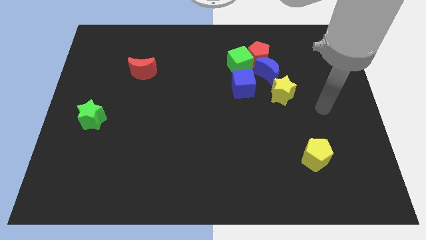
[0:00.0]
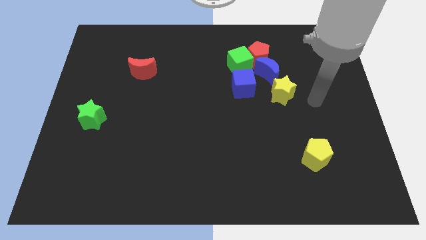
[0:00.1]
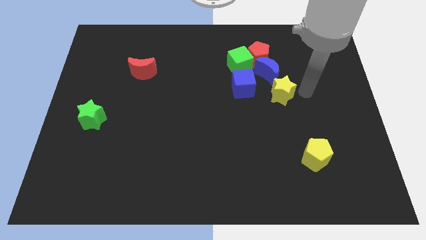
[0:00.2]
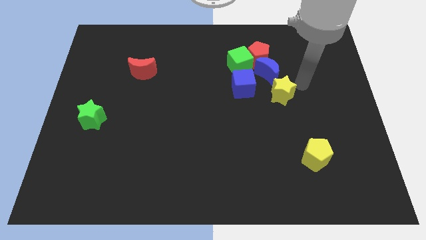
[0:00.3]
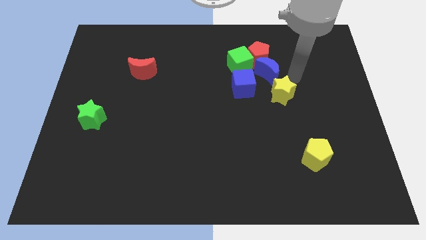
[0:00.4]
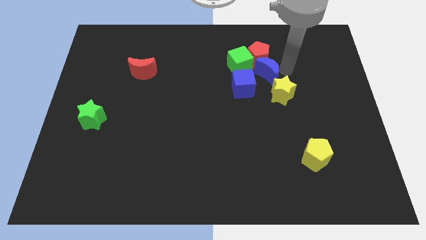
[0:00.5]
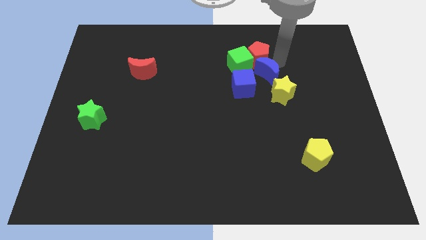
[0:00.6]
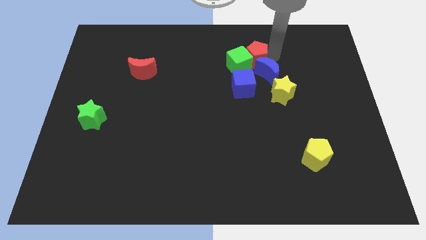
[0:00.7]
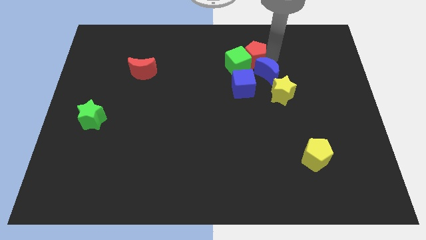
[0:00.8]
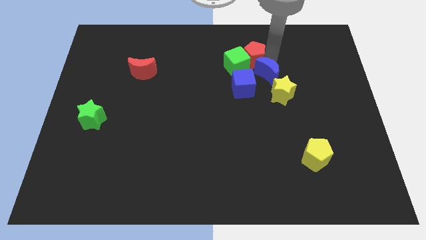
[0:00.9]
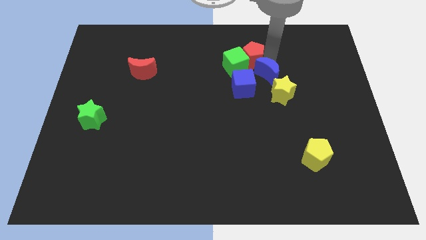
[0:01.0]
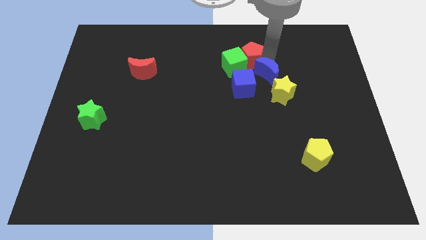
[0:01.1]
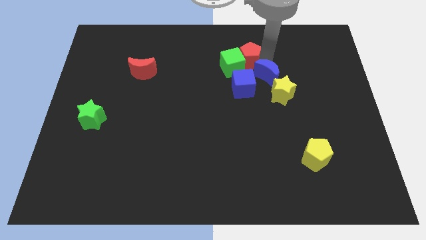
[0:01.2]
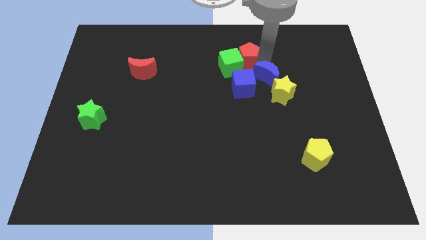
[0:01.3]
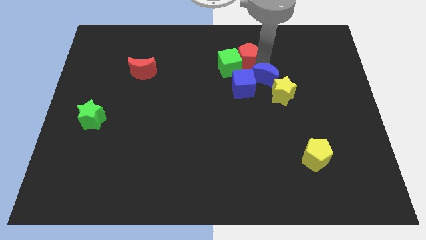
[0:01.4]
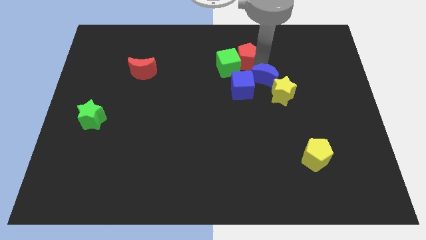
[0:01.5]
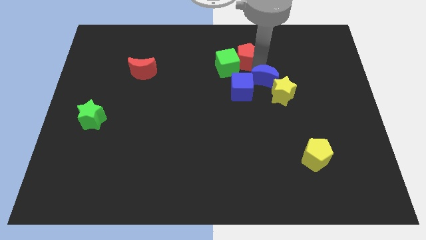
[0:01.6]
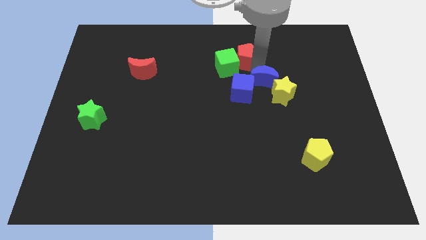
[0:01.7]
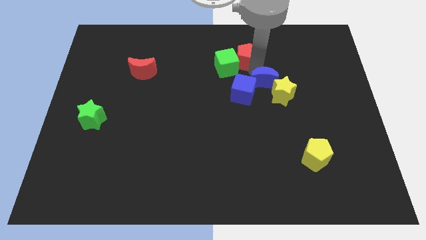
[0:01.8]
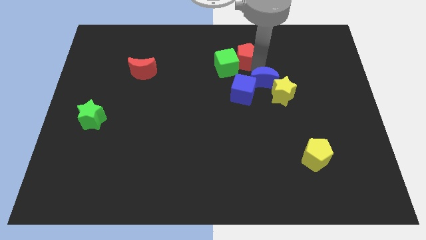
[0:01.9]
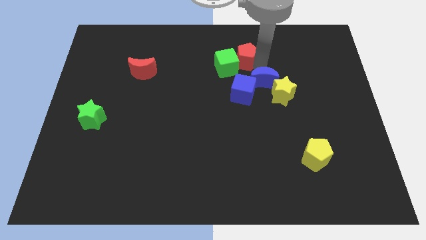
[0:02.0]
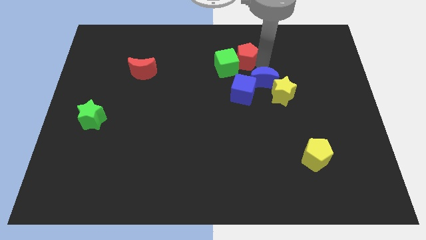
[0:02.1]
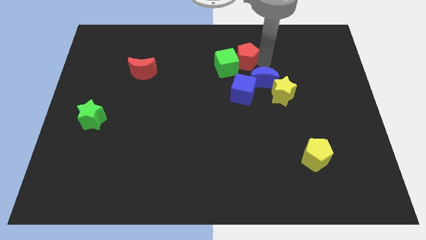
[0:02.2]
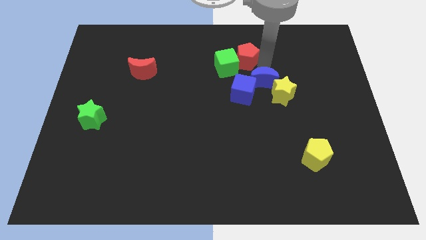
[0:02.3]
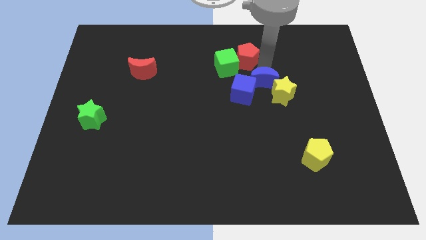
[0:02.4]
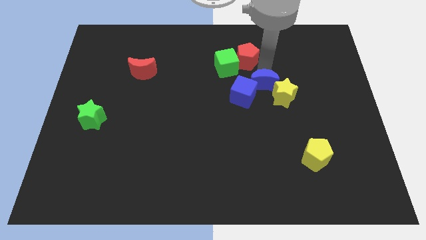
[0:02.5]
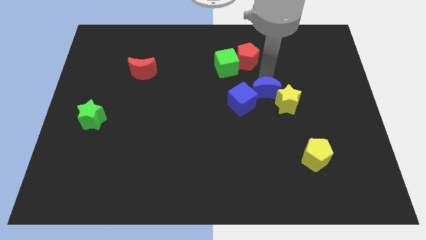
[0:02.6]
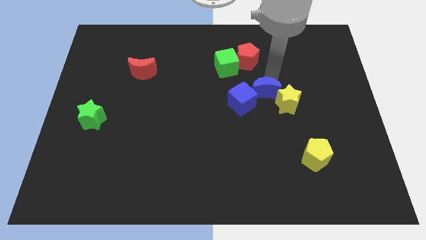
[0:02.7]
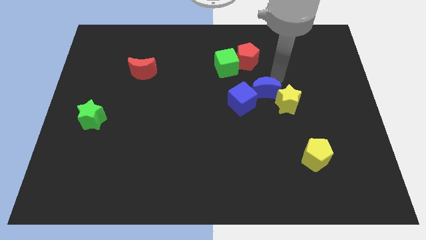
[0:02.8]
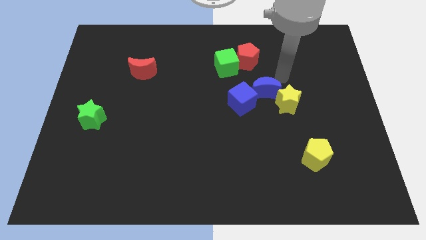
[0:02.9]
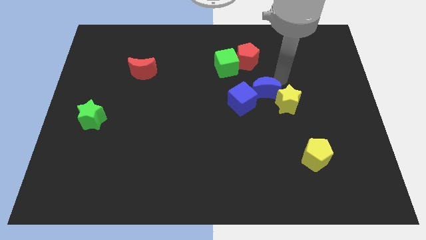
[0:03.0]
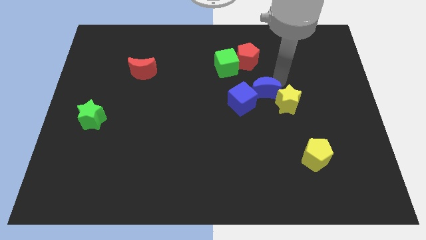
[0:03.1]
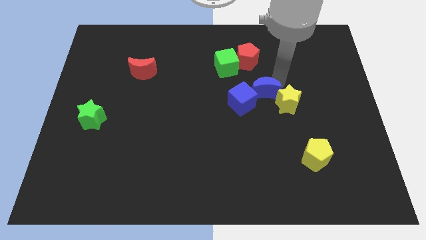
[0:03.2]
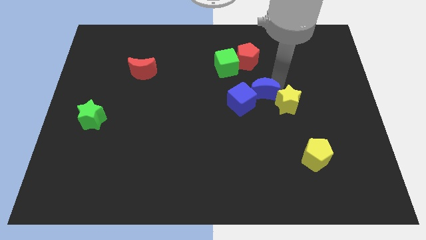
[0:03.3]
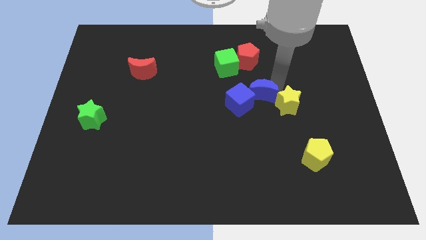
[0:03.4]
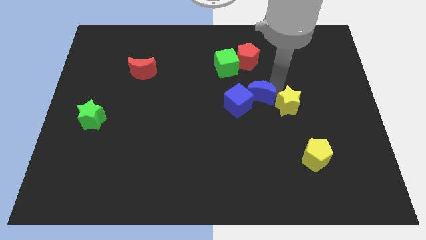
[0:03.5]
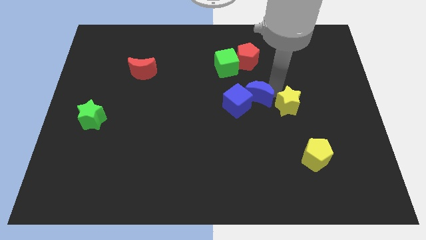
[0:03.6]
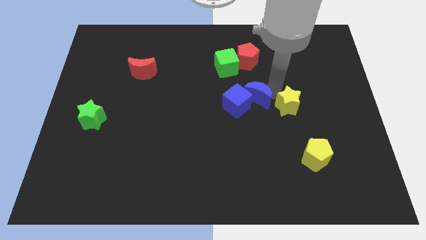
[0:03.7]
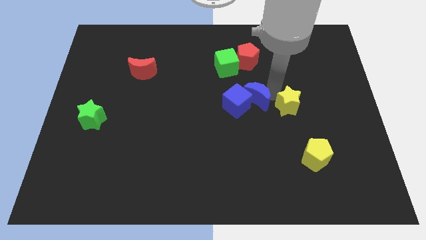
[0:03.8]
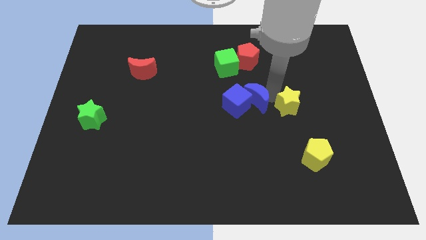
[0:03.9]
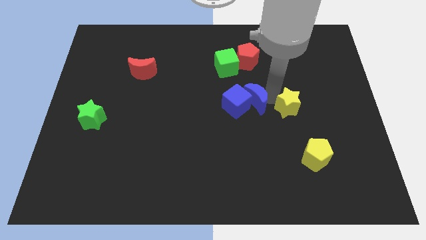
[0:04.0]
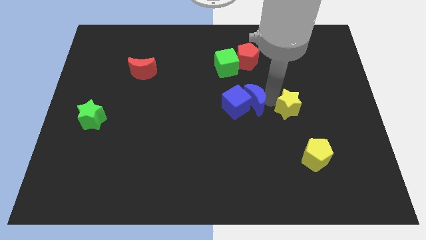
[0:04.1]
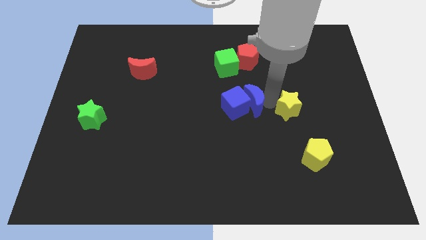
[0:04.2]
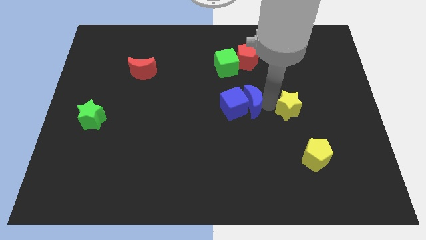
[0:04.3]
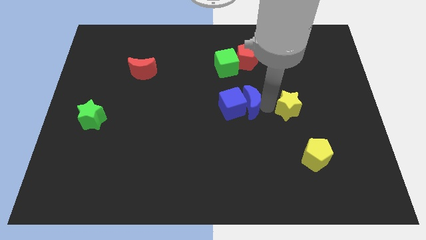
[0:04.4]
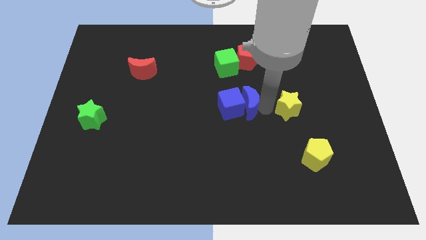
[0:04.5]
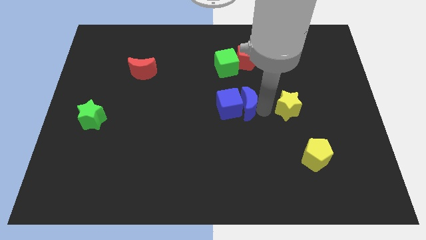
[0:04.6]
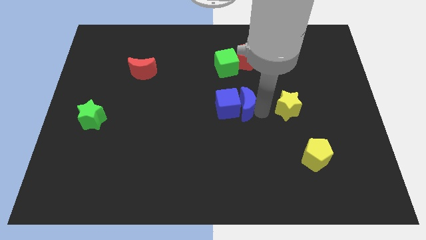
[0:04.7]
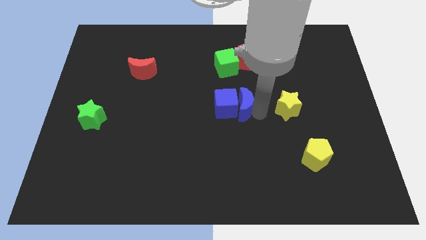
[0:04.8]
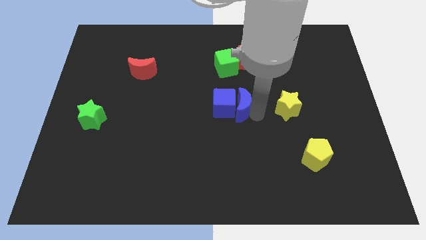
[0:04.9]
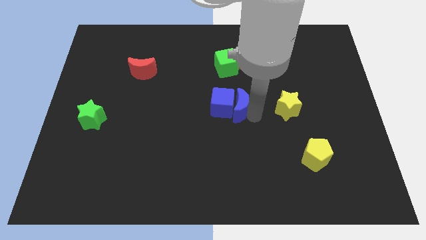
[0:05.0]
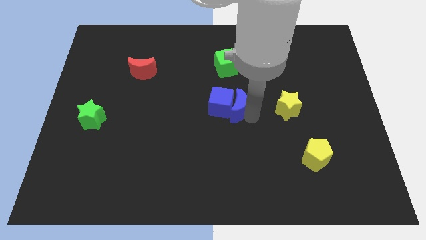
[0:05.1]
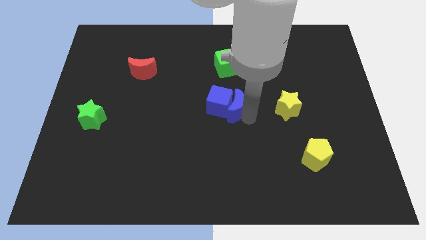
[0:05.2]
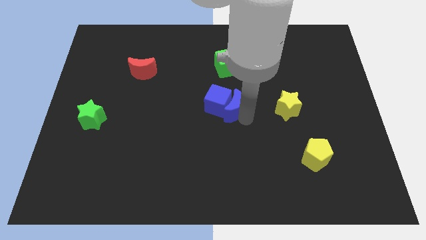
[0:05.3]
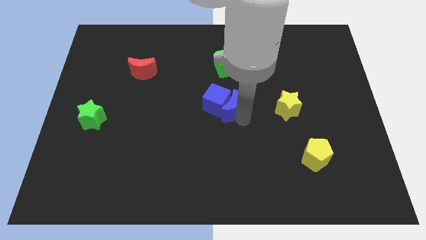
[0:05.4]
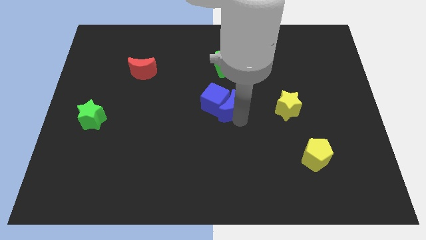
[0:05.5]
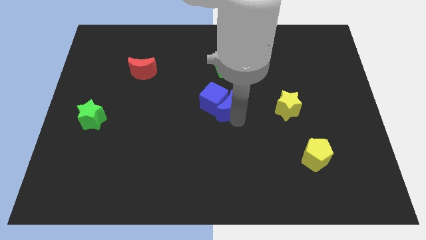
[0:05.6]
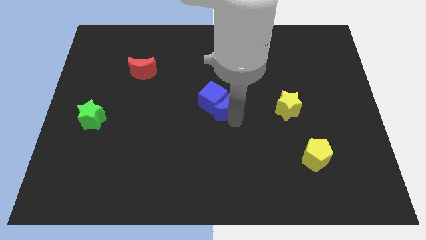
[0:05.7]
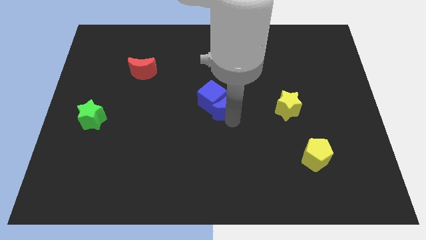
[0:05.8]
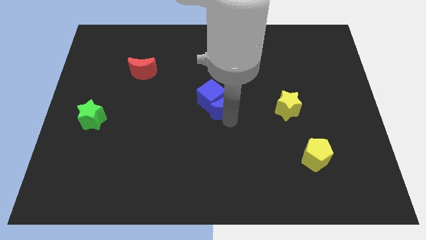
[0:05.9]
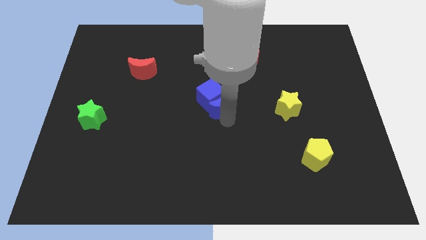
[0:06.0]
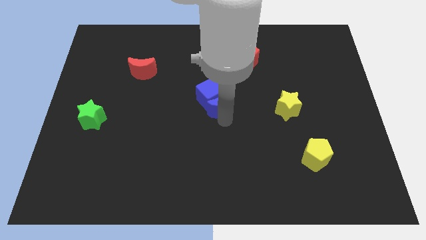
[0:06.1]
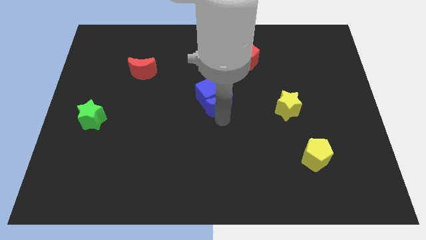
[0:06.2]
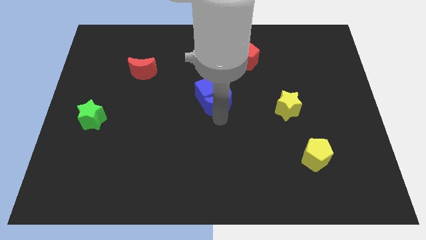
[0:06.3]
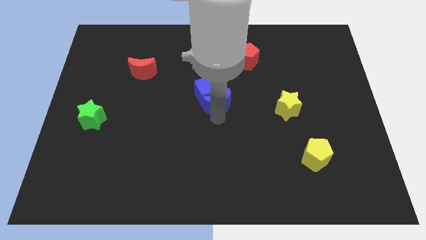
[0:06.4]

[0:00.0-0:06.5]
push the blue moon slightly left

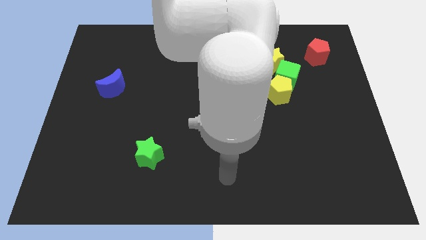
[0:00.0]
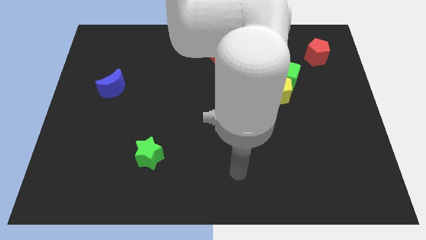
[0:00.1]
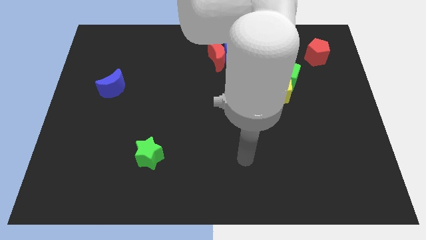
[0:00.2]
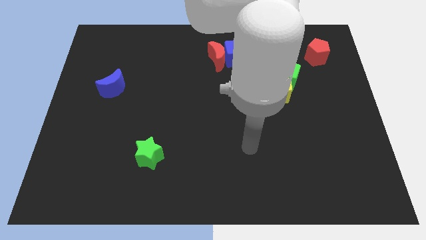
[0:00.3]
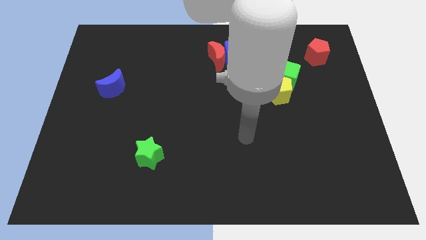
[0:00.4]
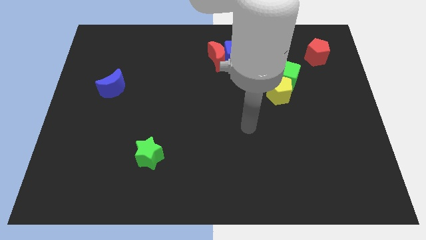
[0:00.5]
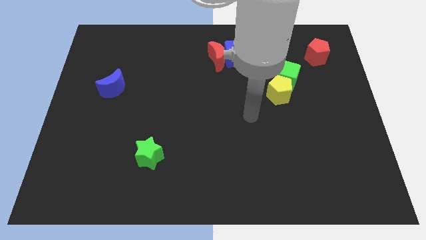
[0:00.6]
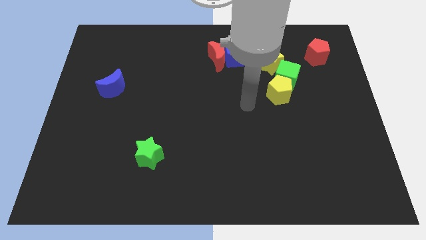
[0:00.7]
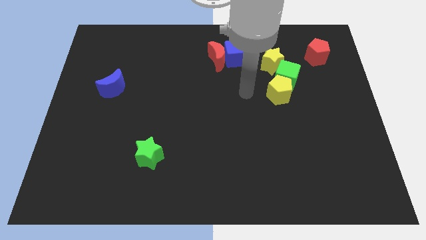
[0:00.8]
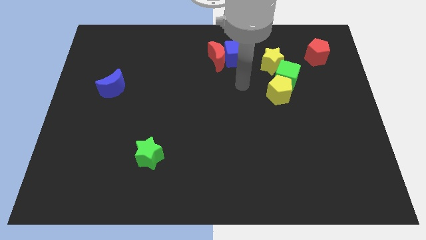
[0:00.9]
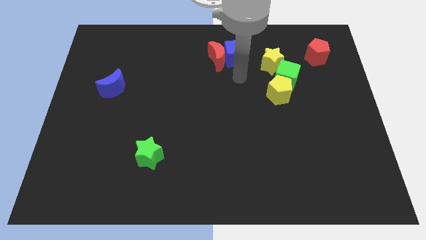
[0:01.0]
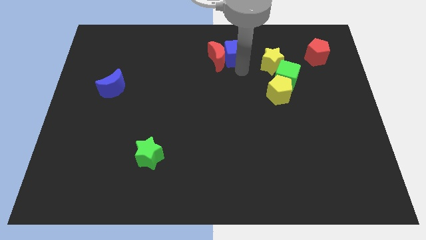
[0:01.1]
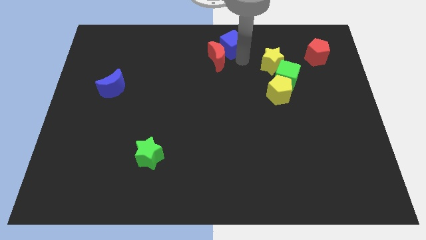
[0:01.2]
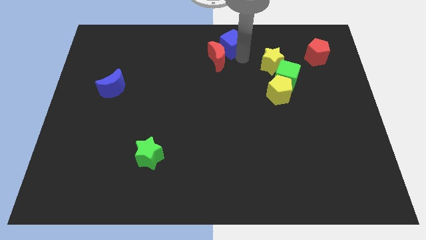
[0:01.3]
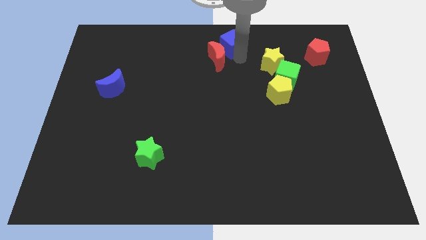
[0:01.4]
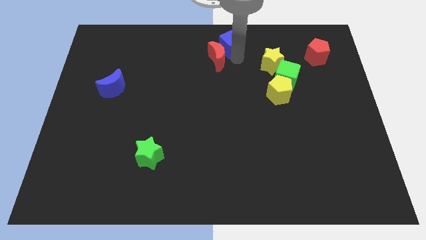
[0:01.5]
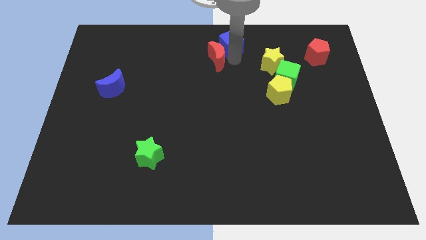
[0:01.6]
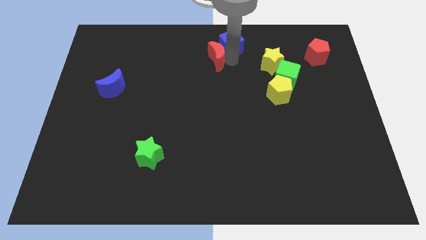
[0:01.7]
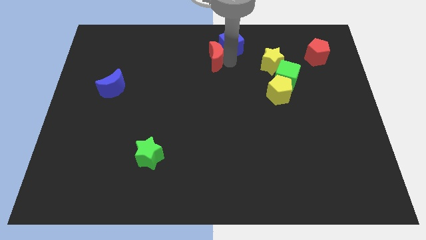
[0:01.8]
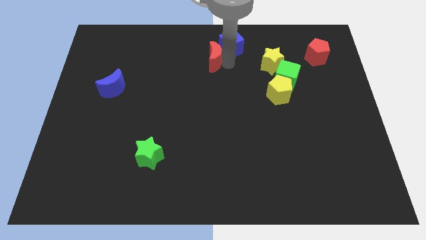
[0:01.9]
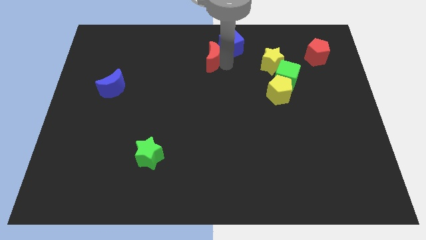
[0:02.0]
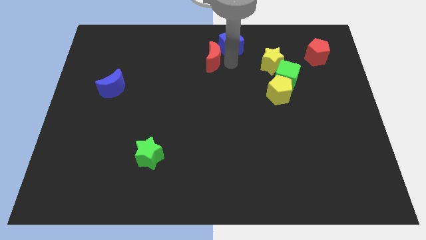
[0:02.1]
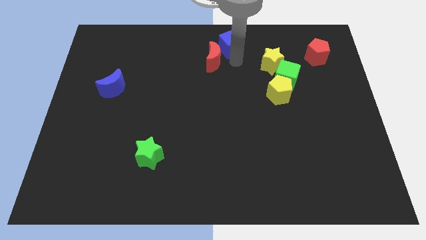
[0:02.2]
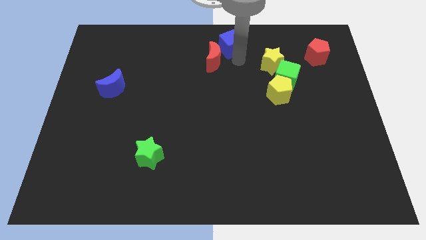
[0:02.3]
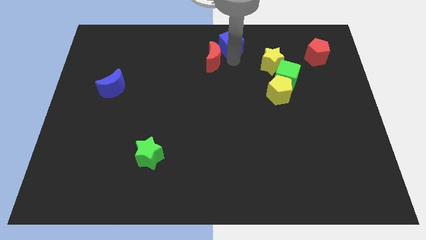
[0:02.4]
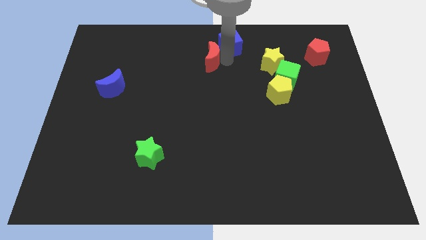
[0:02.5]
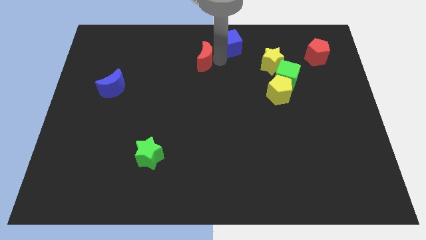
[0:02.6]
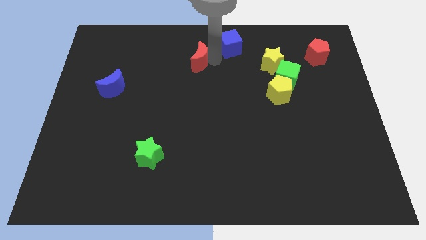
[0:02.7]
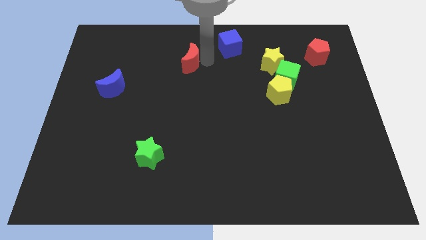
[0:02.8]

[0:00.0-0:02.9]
slide the red moon left a little bit
